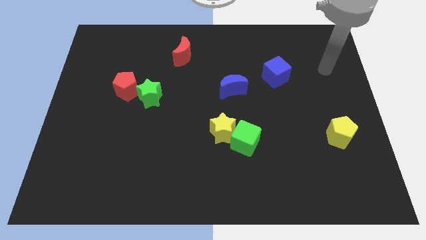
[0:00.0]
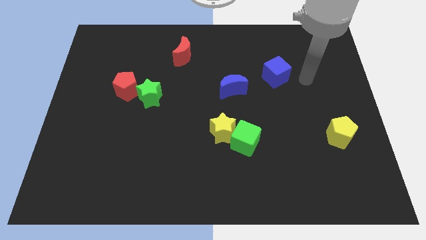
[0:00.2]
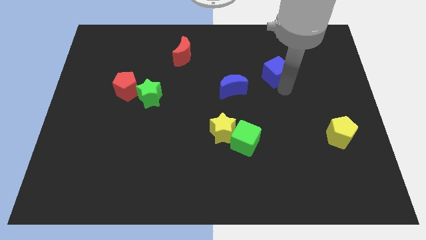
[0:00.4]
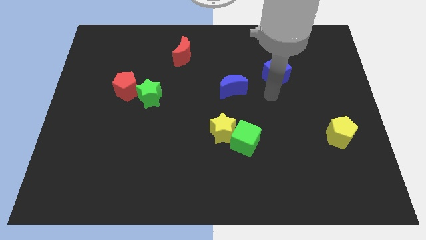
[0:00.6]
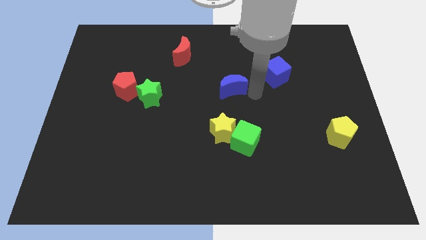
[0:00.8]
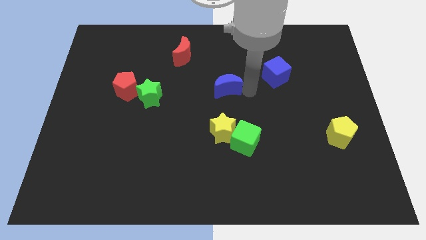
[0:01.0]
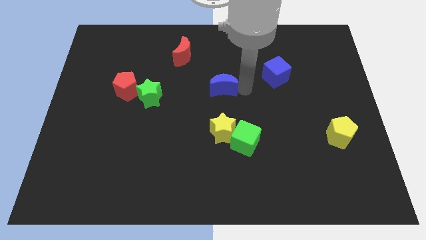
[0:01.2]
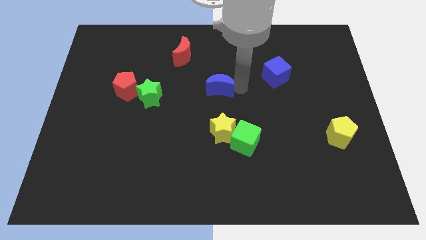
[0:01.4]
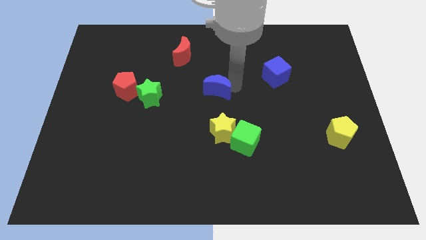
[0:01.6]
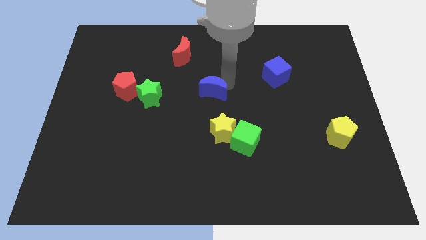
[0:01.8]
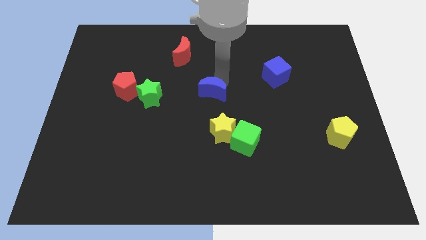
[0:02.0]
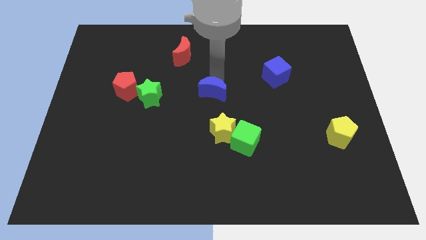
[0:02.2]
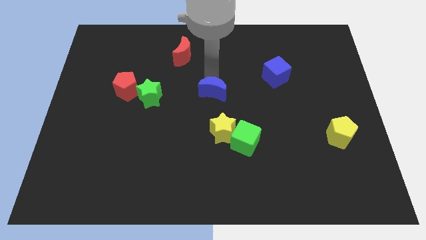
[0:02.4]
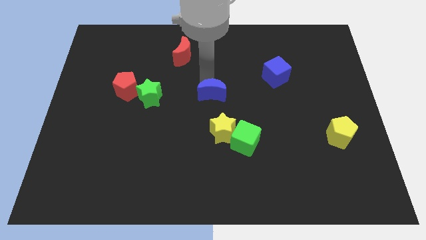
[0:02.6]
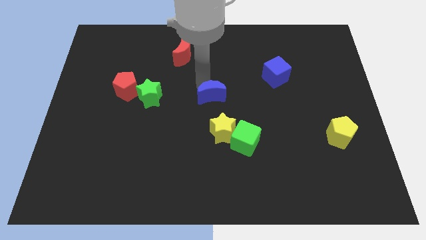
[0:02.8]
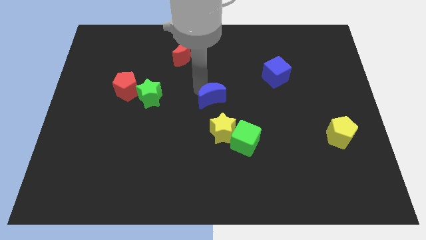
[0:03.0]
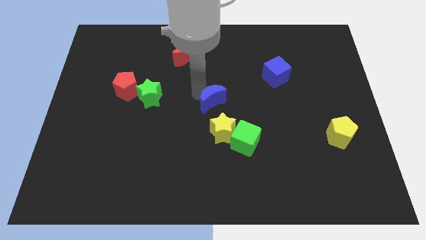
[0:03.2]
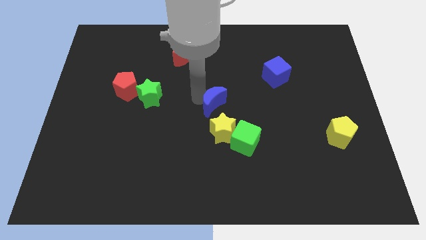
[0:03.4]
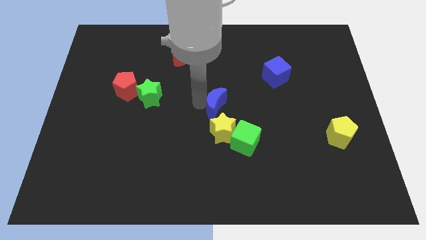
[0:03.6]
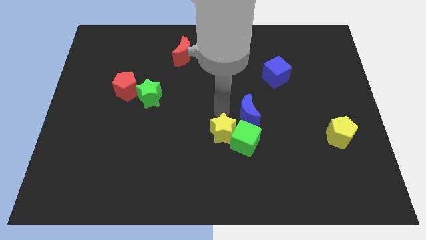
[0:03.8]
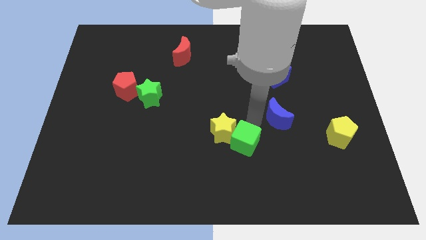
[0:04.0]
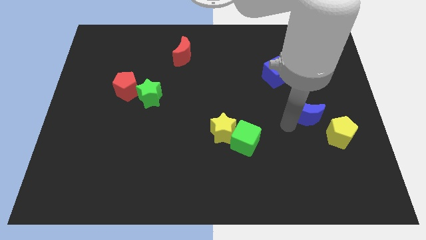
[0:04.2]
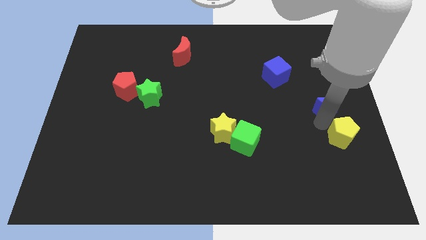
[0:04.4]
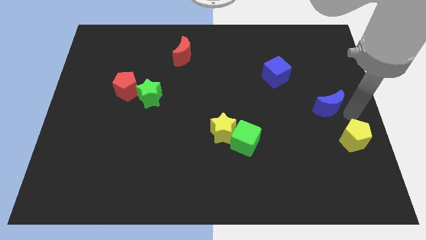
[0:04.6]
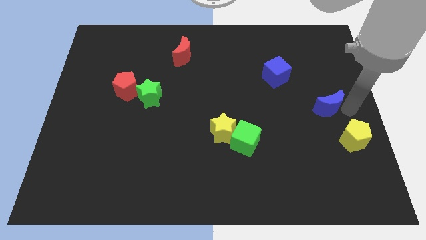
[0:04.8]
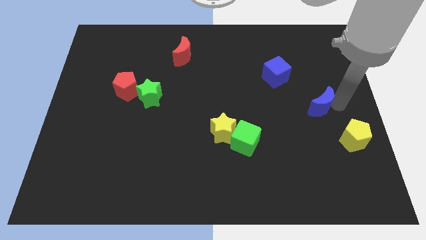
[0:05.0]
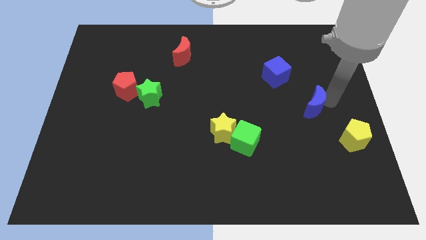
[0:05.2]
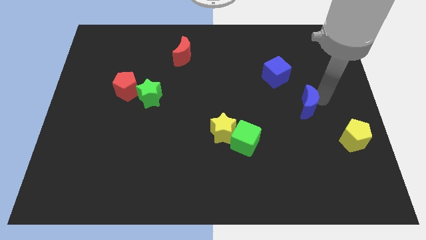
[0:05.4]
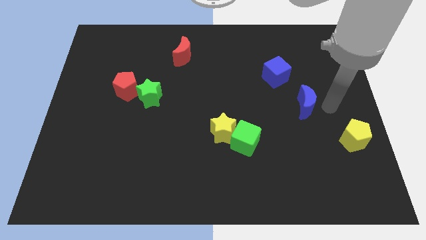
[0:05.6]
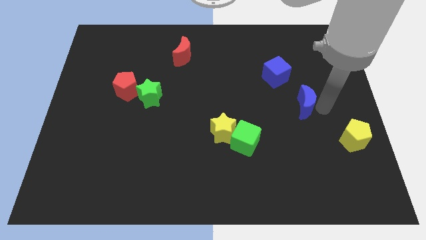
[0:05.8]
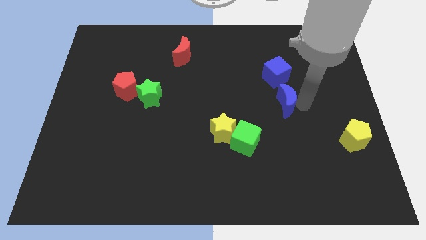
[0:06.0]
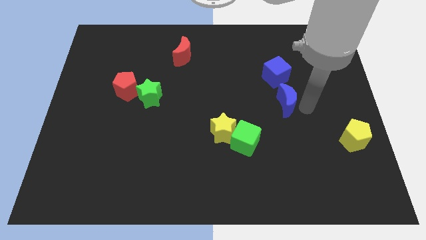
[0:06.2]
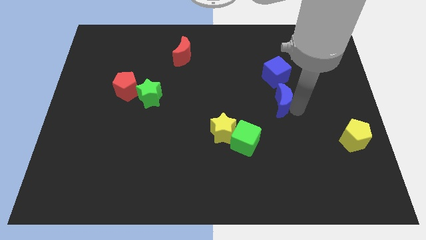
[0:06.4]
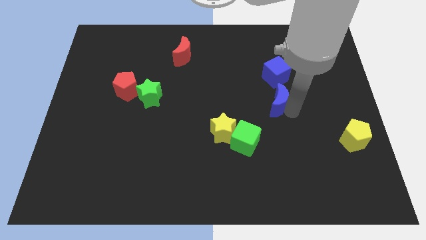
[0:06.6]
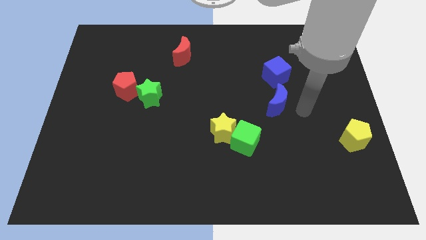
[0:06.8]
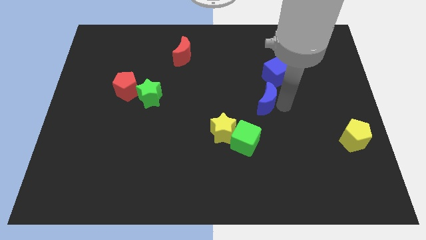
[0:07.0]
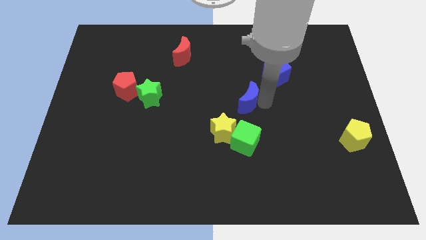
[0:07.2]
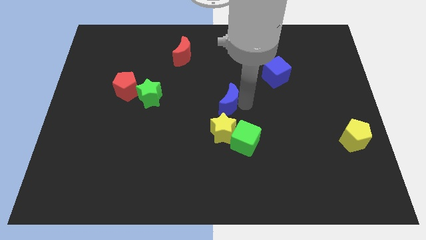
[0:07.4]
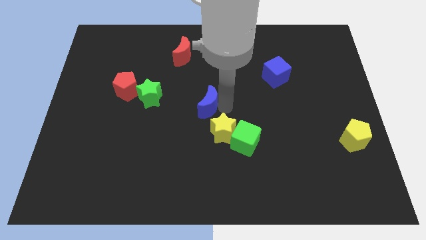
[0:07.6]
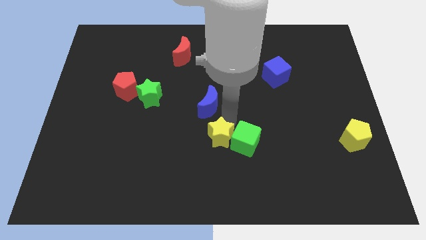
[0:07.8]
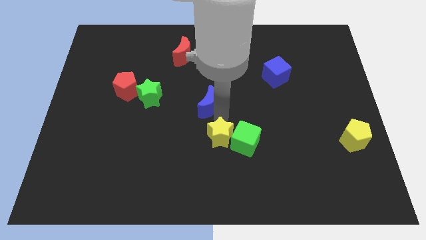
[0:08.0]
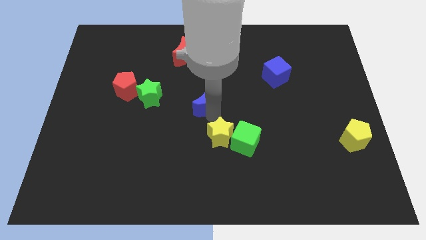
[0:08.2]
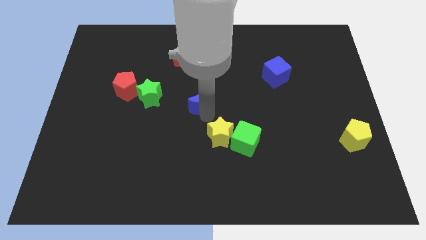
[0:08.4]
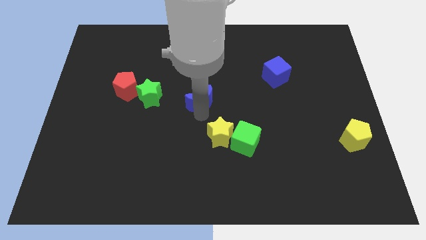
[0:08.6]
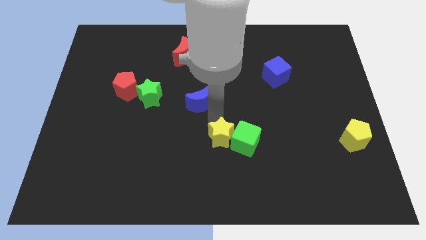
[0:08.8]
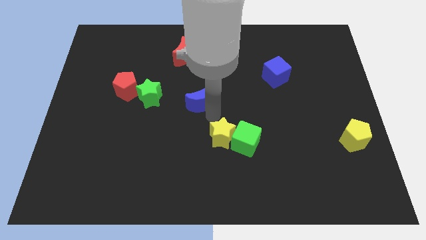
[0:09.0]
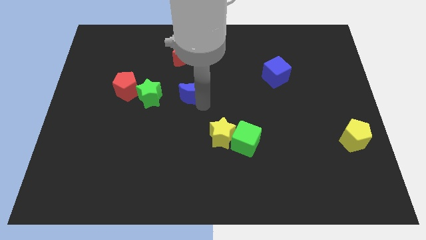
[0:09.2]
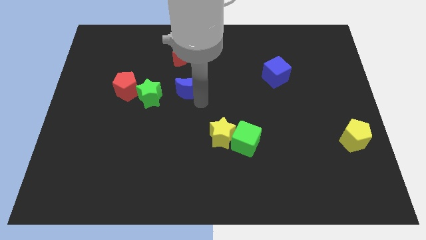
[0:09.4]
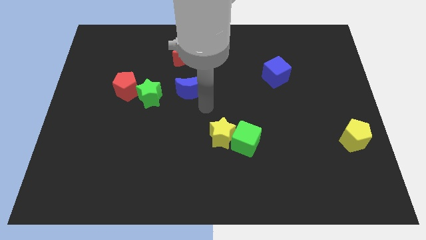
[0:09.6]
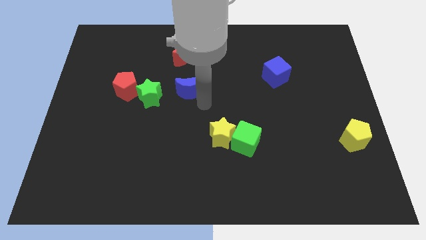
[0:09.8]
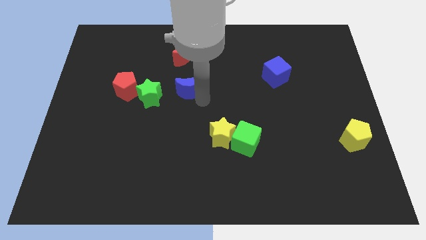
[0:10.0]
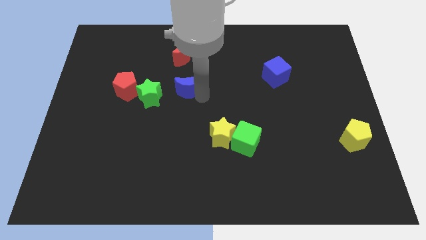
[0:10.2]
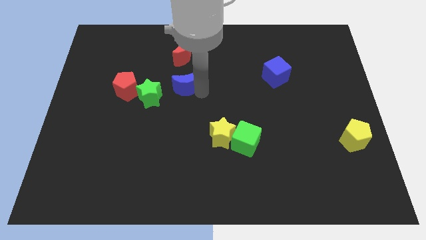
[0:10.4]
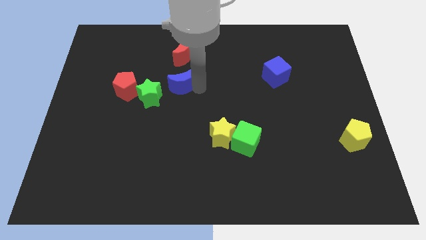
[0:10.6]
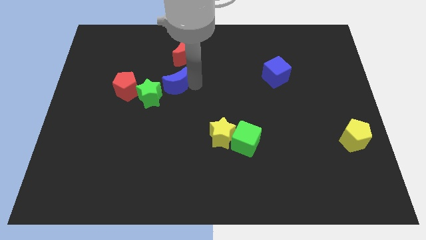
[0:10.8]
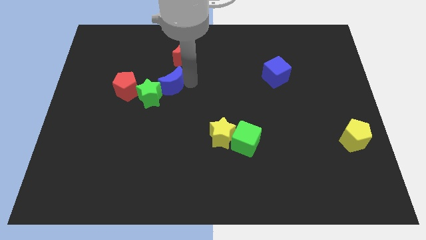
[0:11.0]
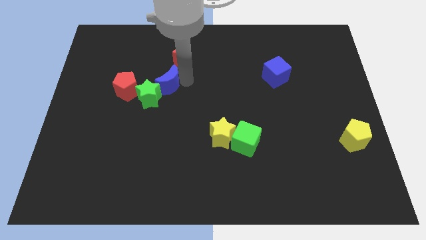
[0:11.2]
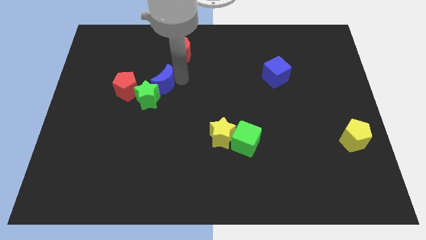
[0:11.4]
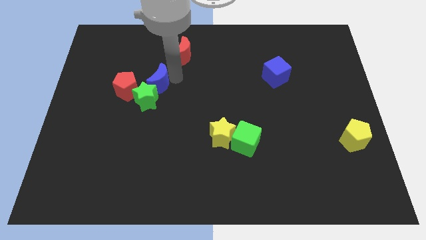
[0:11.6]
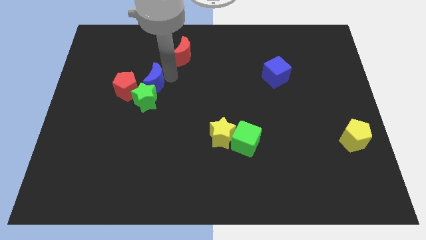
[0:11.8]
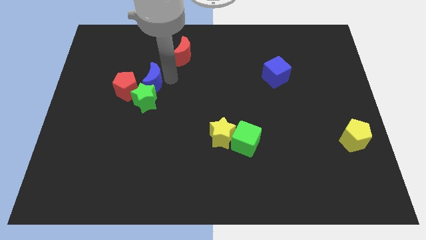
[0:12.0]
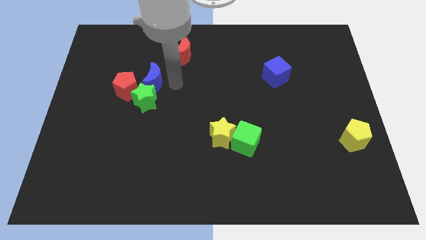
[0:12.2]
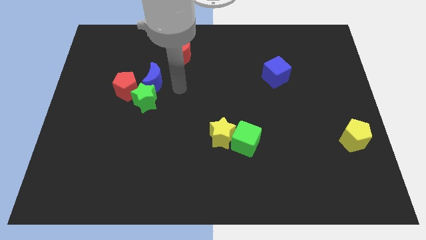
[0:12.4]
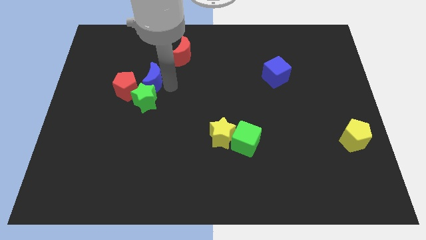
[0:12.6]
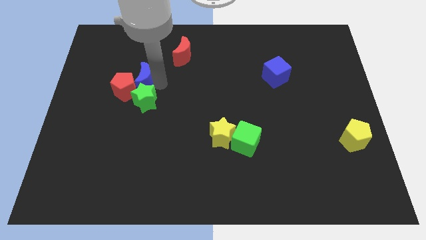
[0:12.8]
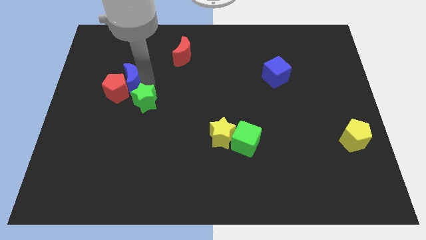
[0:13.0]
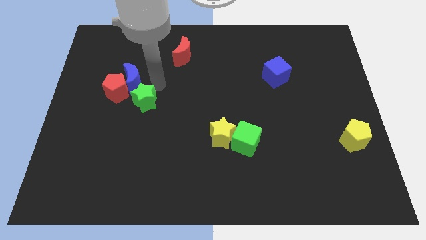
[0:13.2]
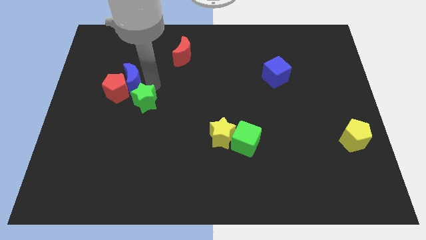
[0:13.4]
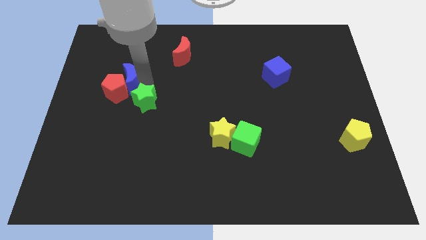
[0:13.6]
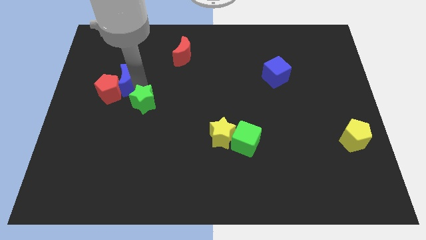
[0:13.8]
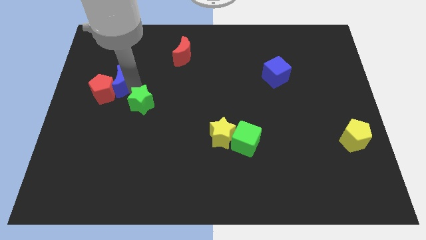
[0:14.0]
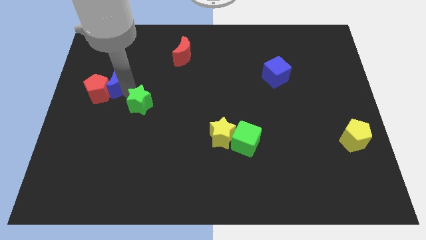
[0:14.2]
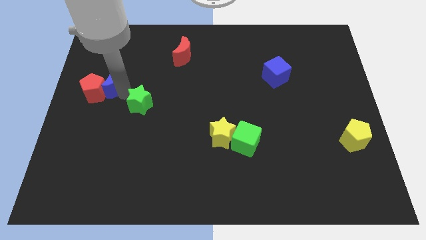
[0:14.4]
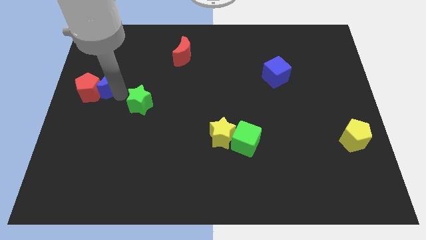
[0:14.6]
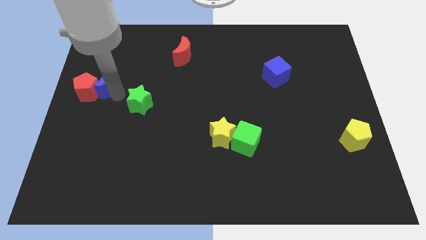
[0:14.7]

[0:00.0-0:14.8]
put the blue moon to the left side of the board

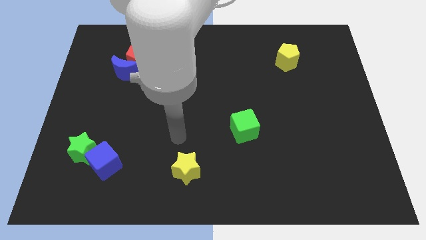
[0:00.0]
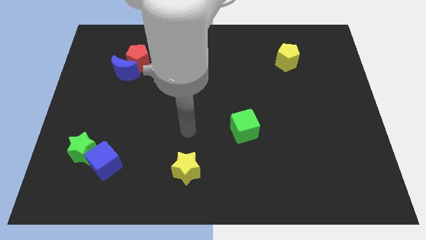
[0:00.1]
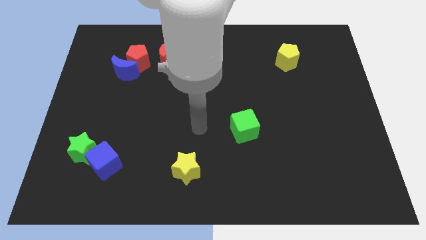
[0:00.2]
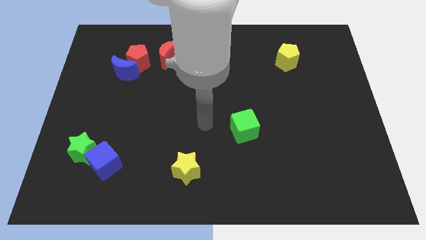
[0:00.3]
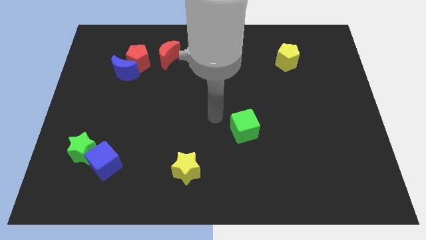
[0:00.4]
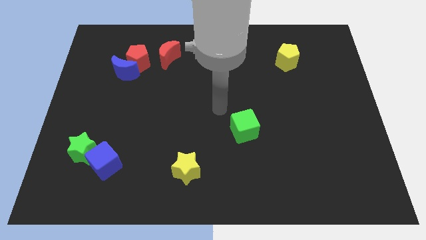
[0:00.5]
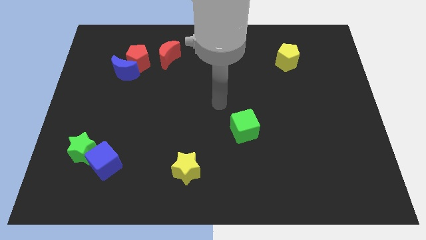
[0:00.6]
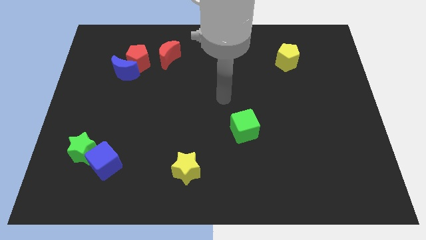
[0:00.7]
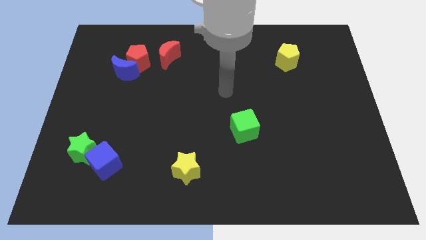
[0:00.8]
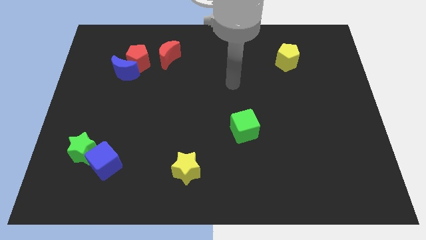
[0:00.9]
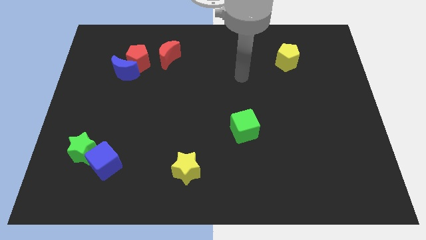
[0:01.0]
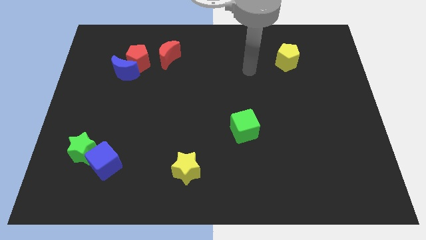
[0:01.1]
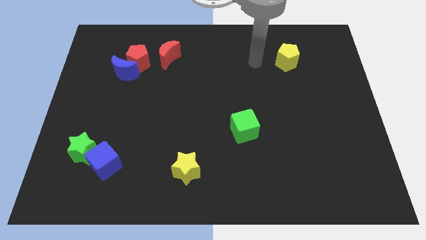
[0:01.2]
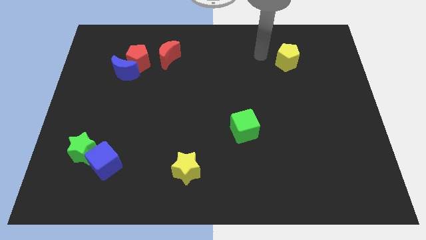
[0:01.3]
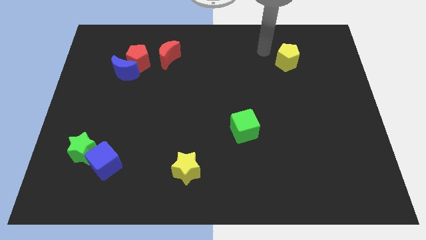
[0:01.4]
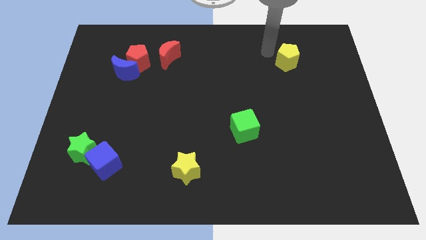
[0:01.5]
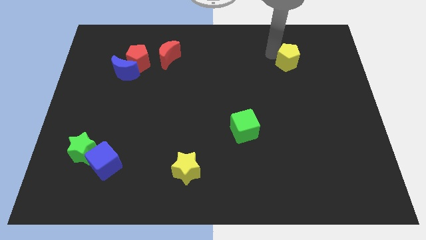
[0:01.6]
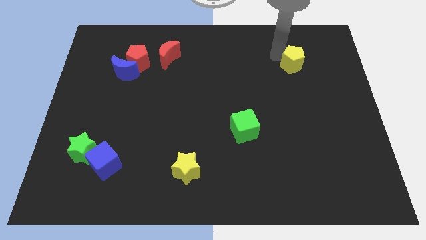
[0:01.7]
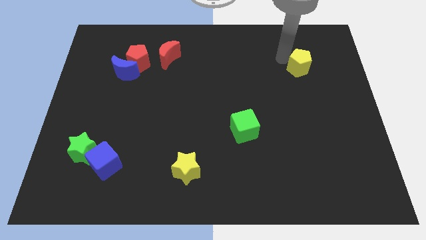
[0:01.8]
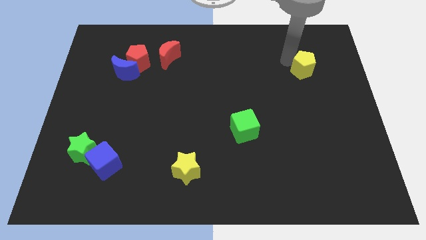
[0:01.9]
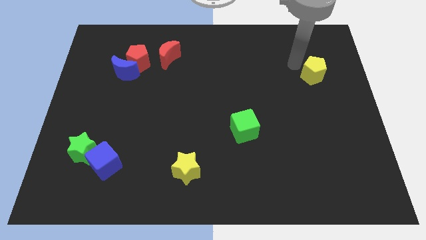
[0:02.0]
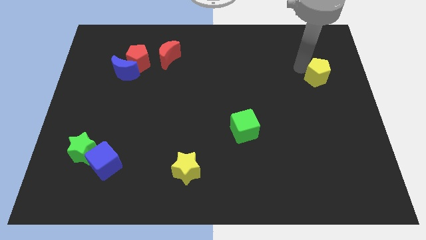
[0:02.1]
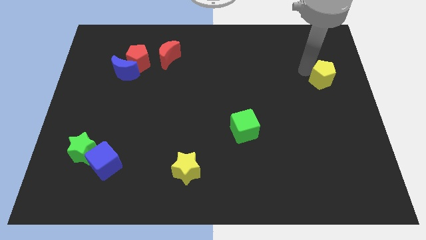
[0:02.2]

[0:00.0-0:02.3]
move the yellow pentagon to the right side
